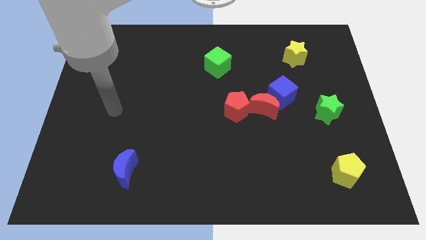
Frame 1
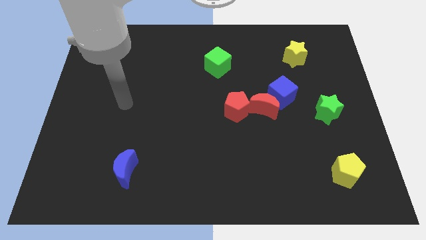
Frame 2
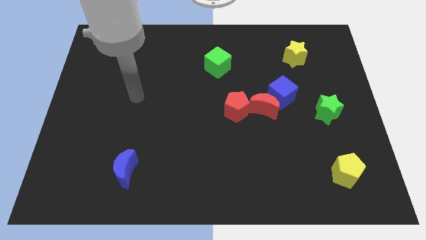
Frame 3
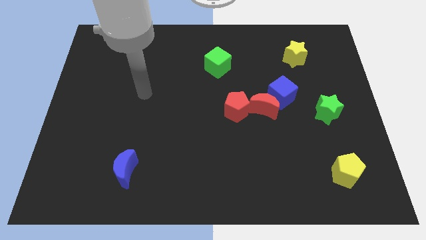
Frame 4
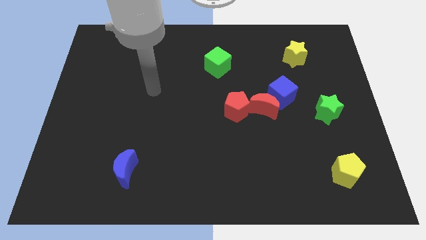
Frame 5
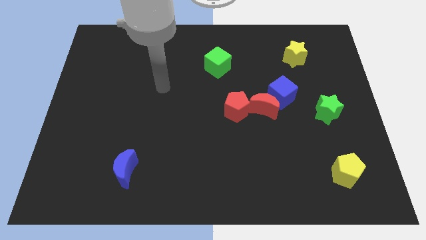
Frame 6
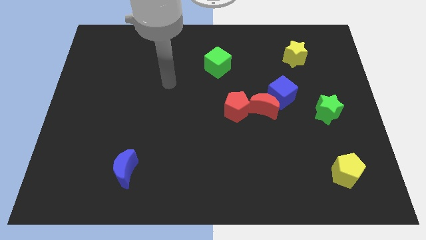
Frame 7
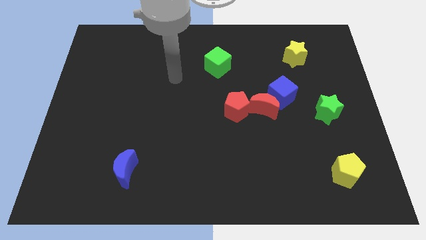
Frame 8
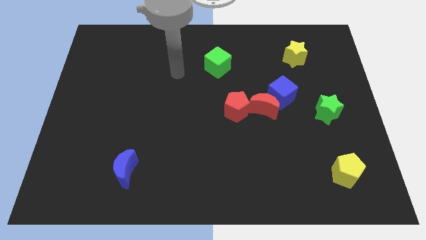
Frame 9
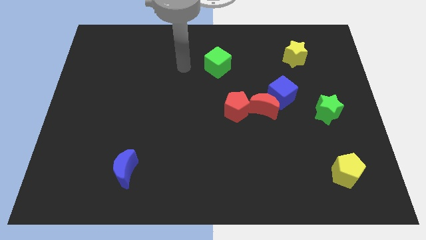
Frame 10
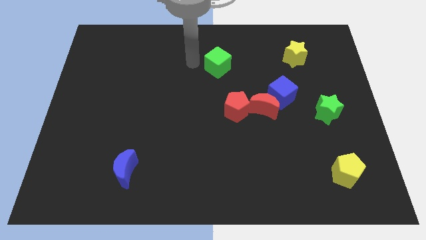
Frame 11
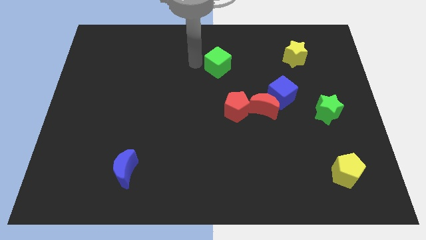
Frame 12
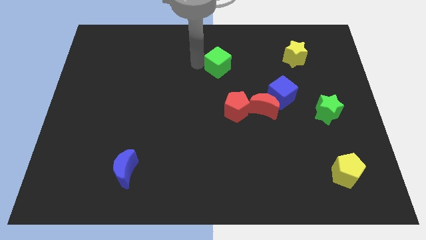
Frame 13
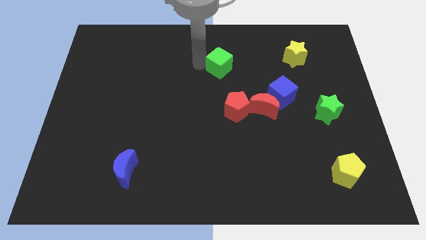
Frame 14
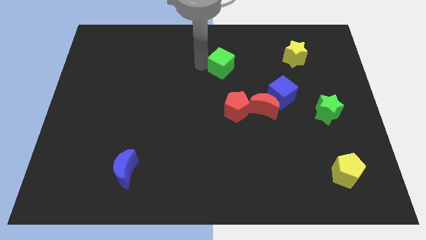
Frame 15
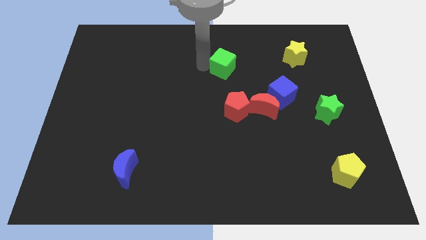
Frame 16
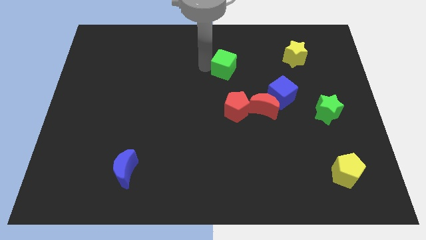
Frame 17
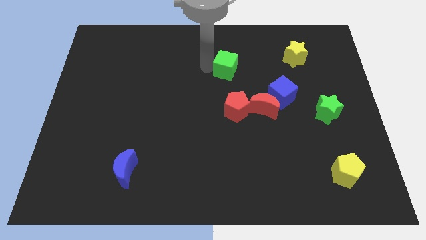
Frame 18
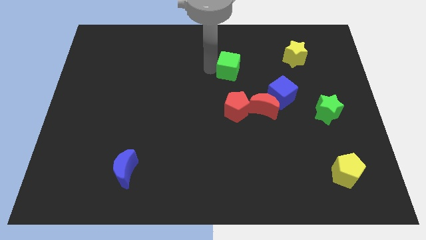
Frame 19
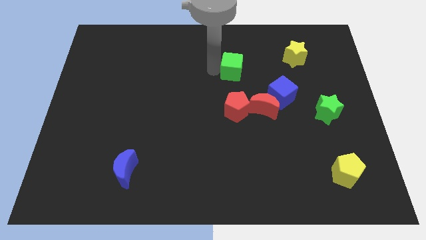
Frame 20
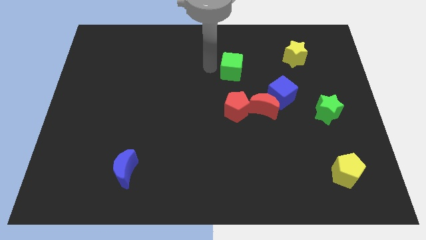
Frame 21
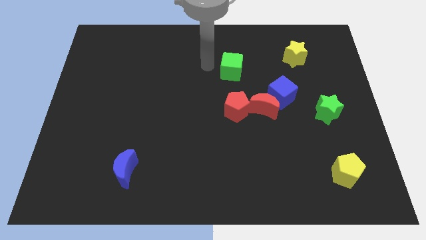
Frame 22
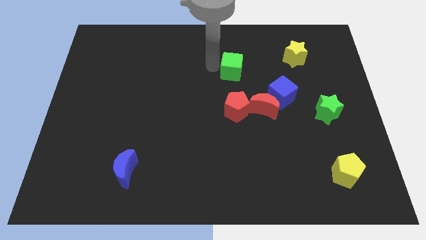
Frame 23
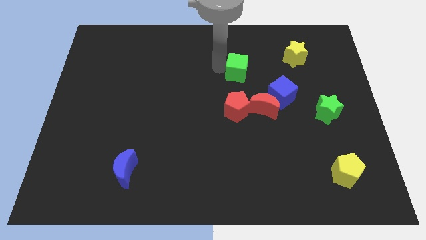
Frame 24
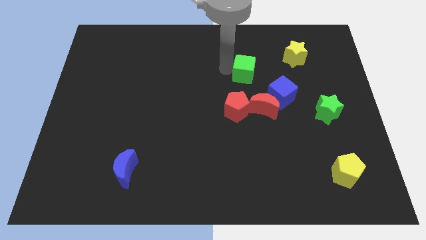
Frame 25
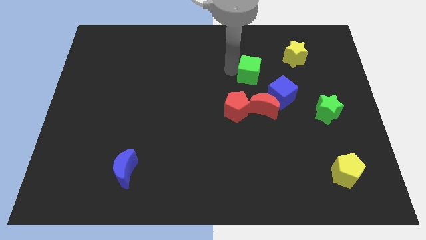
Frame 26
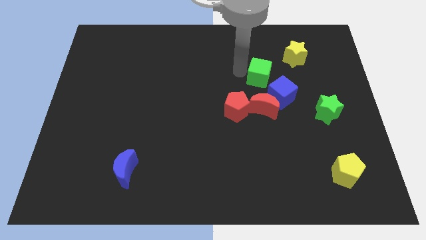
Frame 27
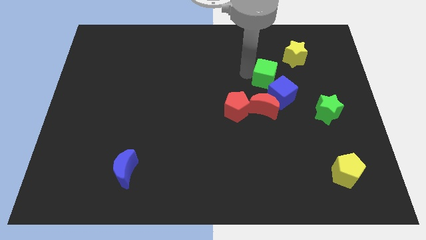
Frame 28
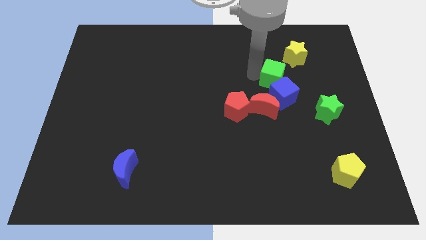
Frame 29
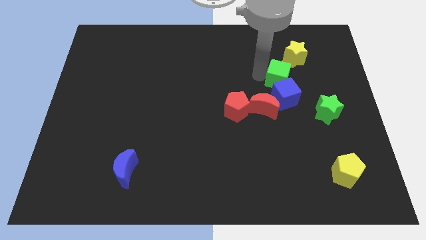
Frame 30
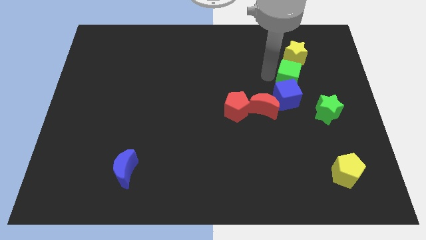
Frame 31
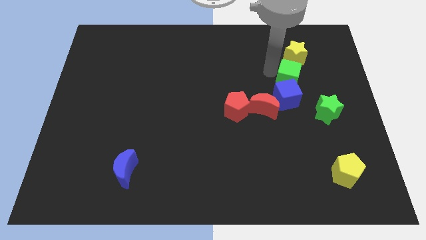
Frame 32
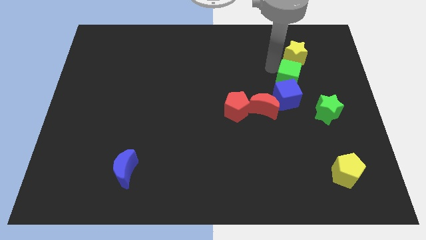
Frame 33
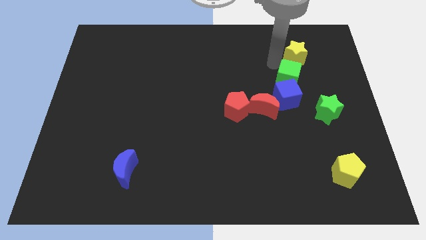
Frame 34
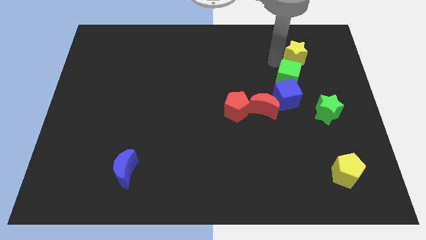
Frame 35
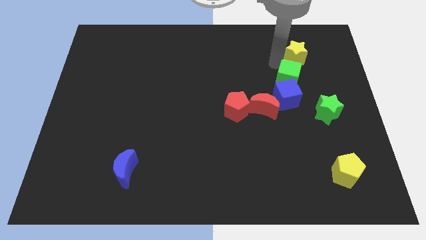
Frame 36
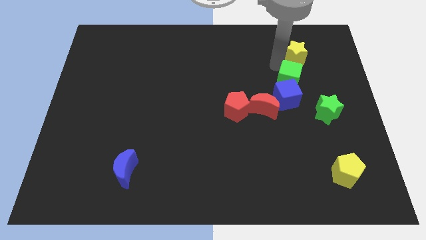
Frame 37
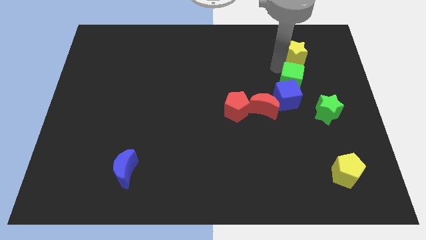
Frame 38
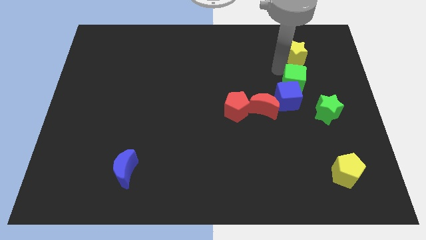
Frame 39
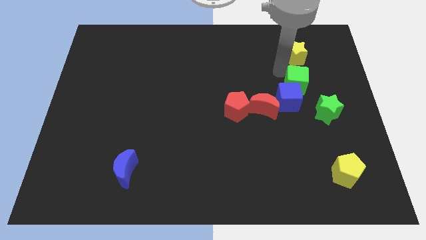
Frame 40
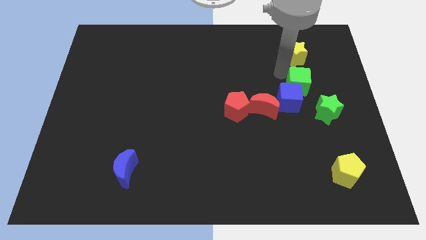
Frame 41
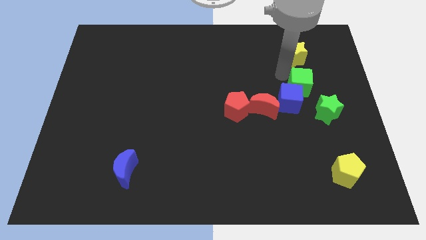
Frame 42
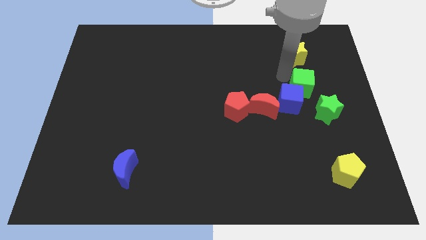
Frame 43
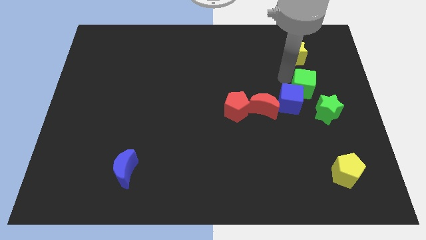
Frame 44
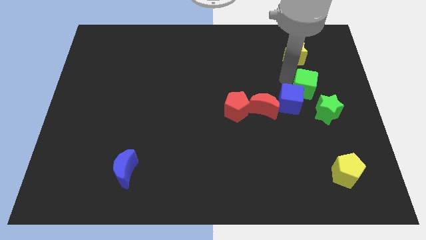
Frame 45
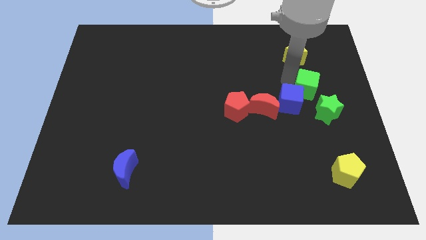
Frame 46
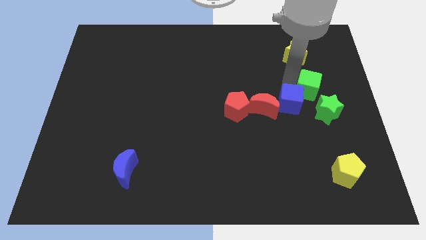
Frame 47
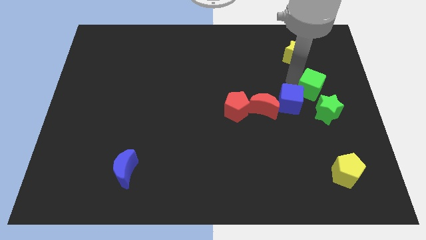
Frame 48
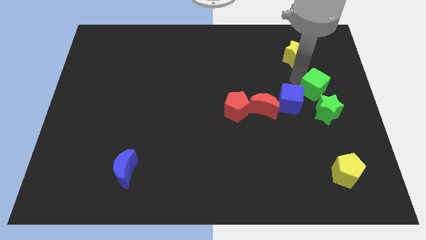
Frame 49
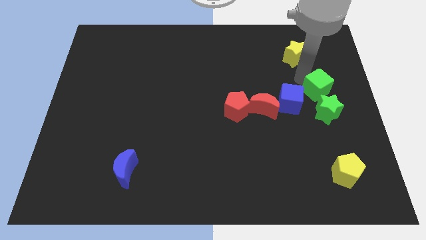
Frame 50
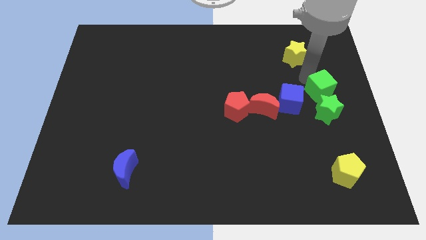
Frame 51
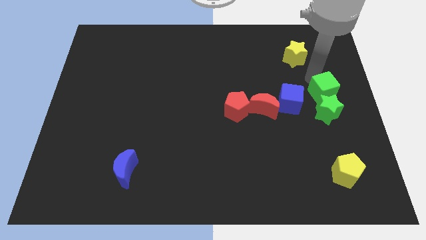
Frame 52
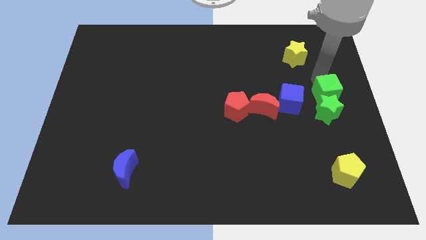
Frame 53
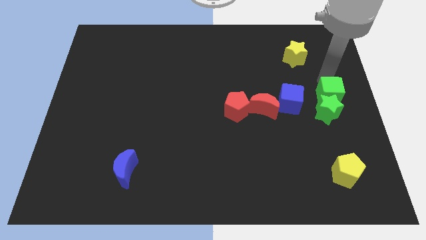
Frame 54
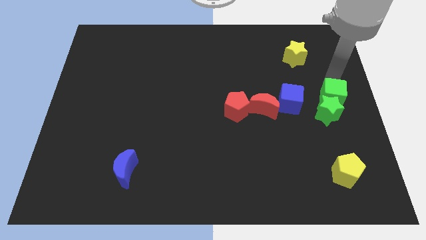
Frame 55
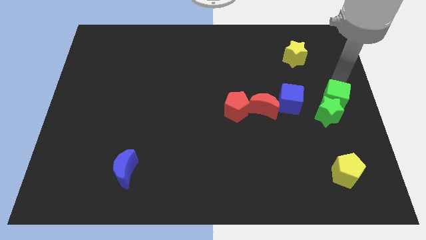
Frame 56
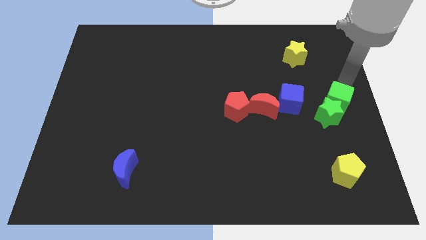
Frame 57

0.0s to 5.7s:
move the green cube diagonally downwards and to the right

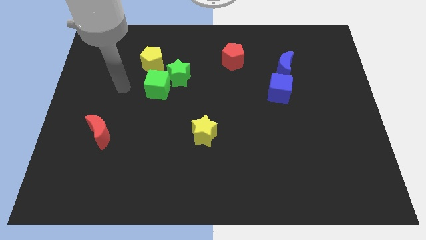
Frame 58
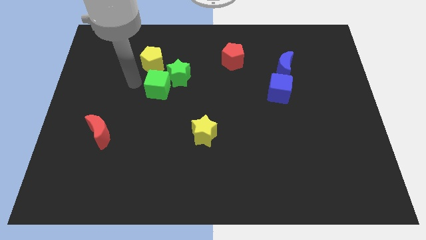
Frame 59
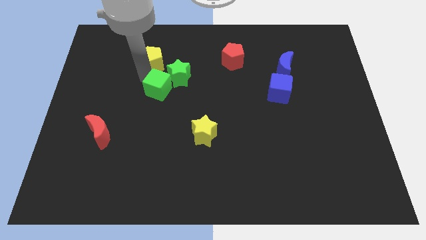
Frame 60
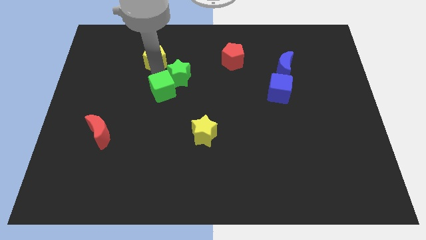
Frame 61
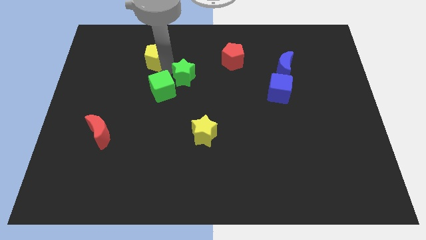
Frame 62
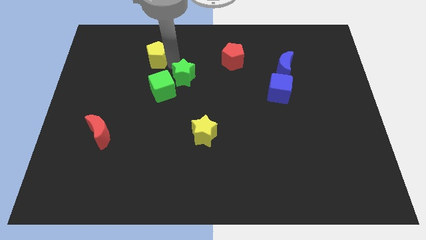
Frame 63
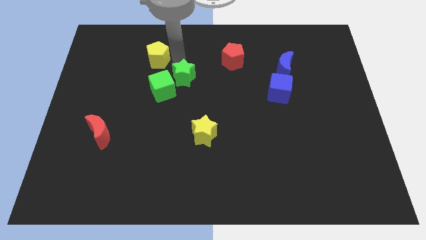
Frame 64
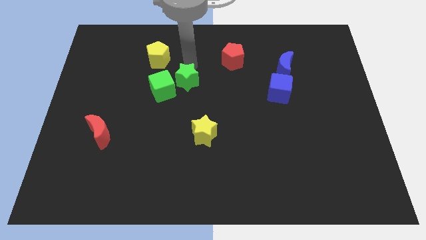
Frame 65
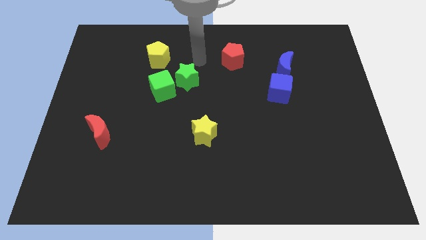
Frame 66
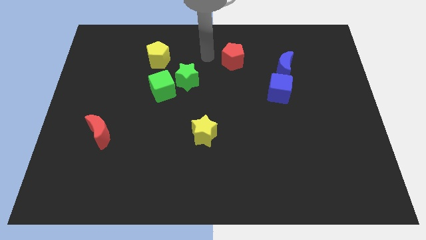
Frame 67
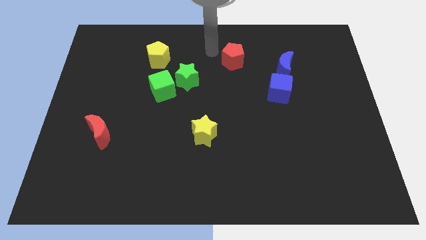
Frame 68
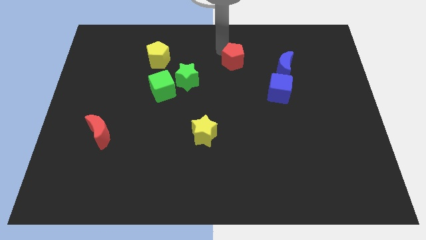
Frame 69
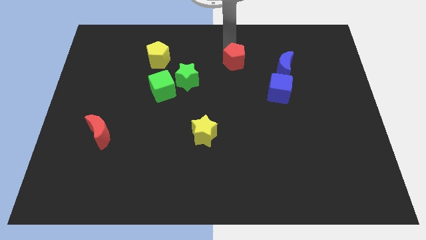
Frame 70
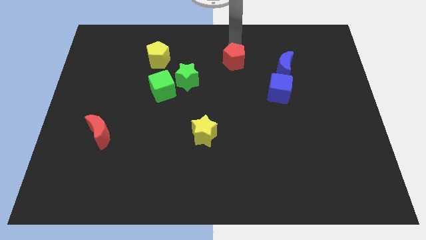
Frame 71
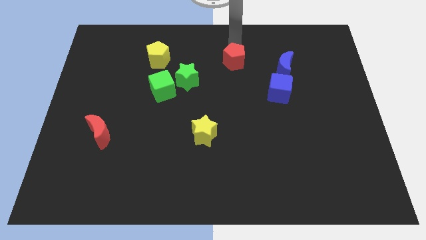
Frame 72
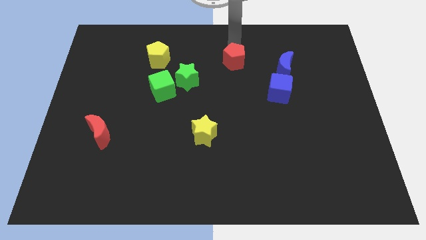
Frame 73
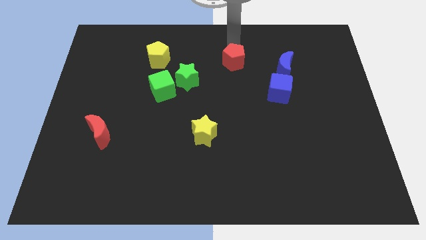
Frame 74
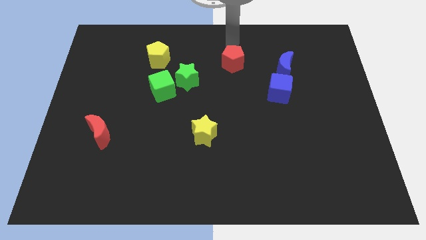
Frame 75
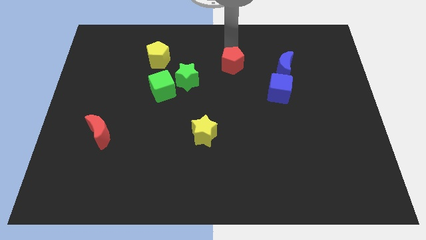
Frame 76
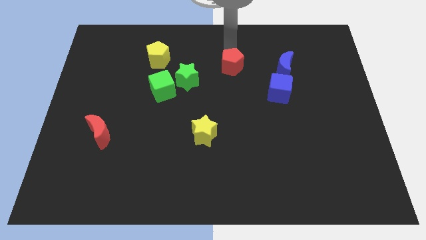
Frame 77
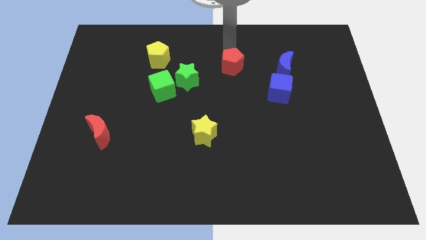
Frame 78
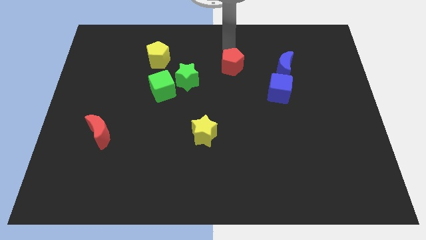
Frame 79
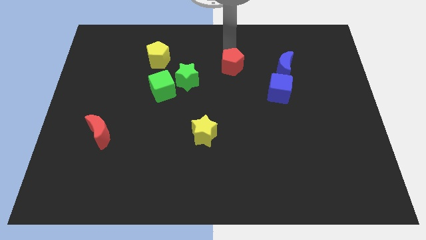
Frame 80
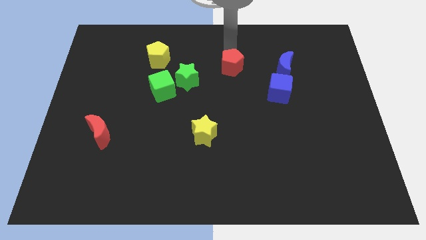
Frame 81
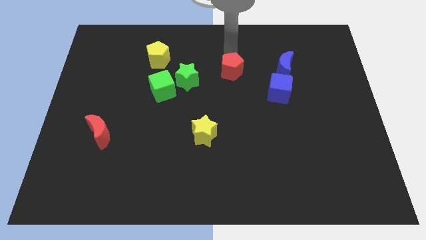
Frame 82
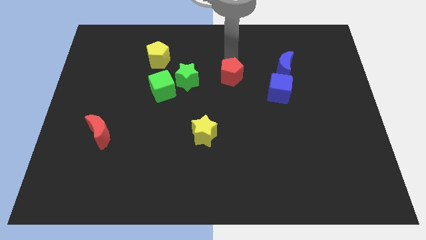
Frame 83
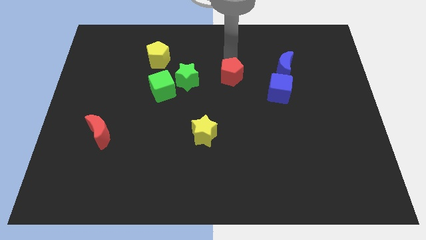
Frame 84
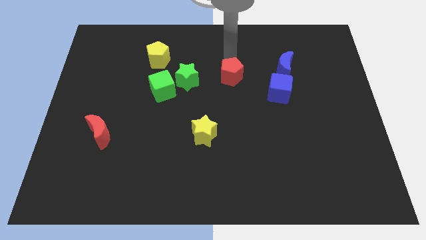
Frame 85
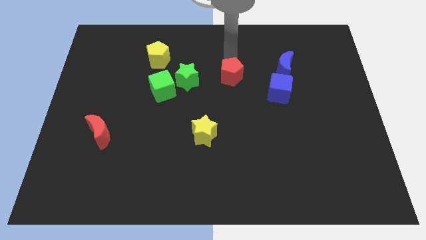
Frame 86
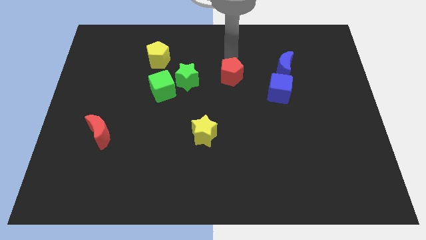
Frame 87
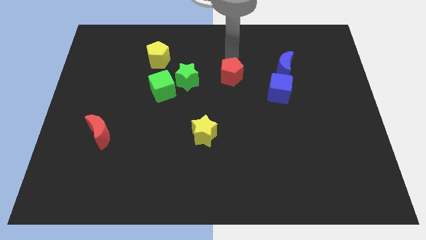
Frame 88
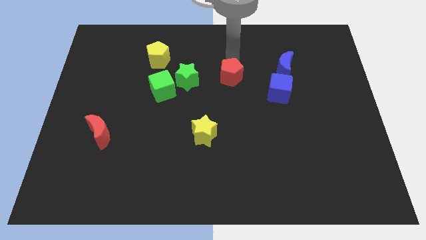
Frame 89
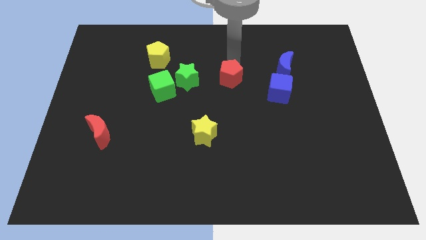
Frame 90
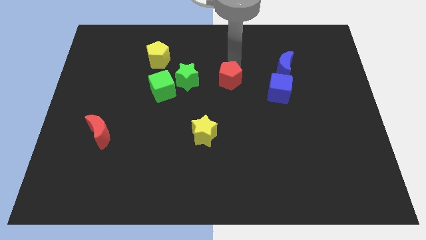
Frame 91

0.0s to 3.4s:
slide the red pentagon down a little
